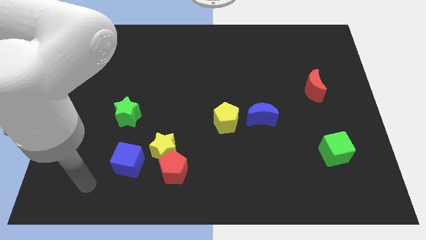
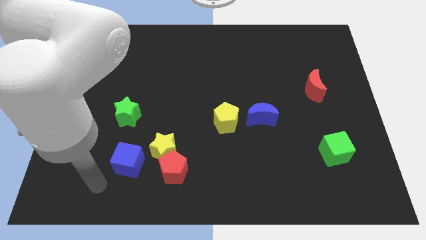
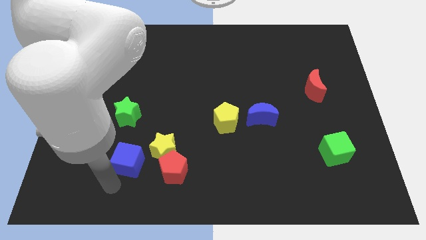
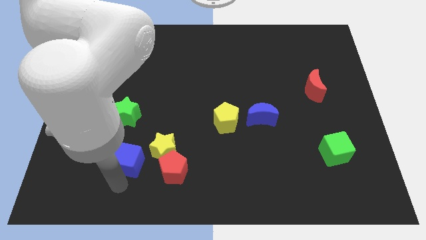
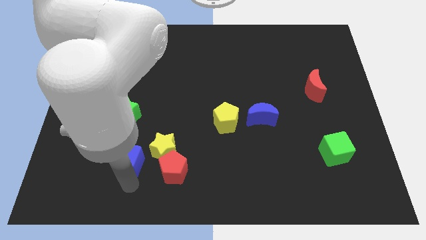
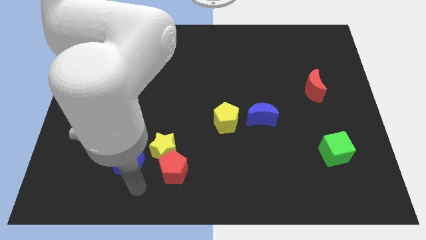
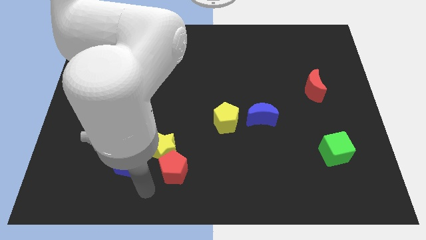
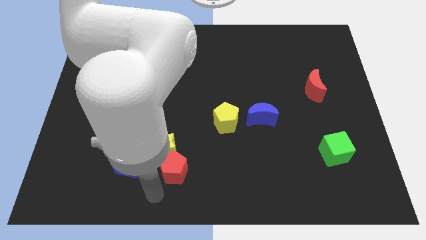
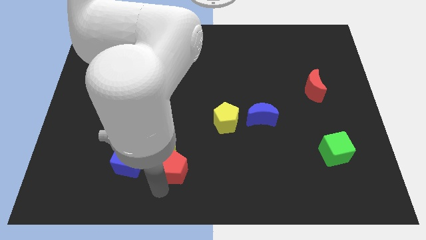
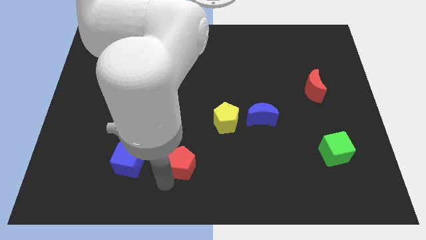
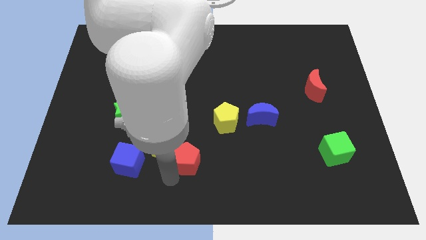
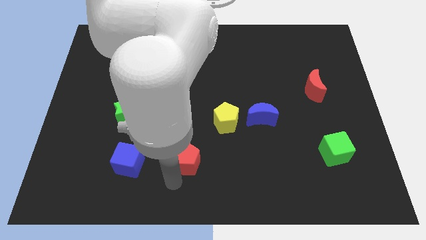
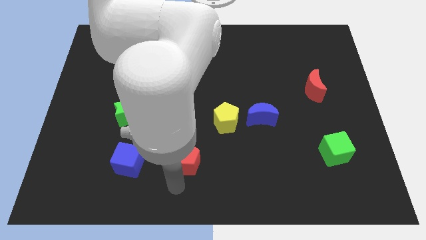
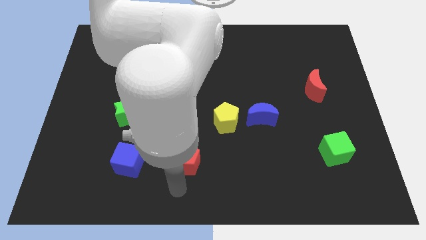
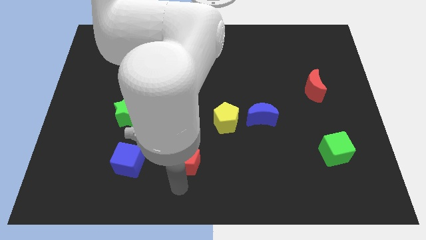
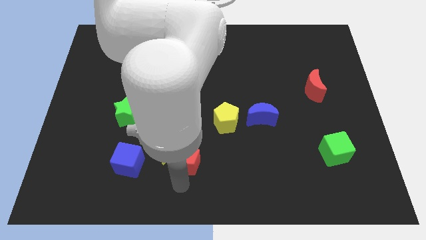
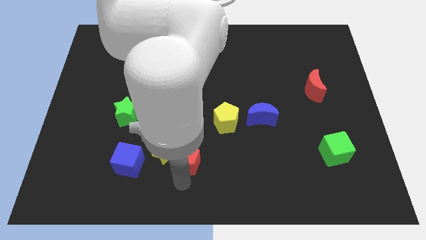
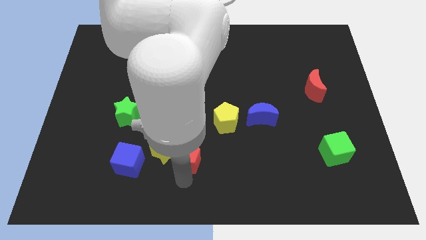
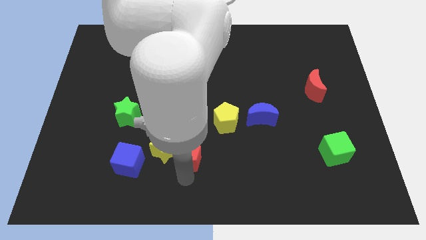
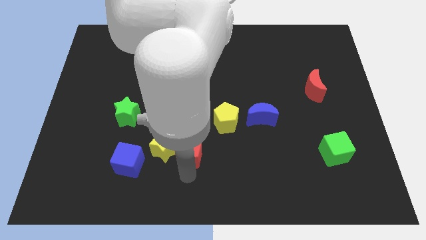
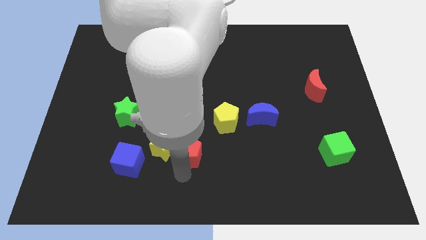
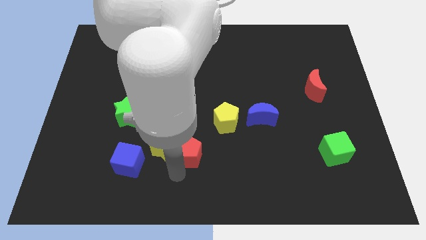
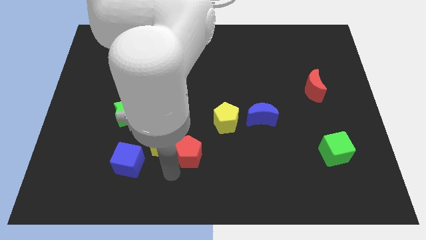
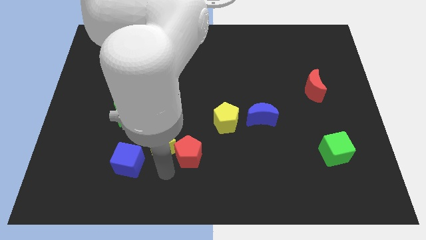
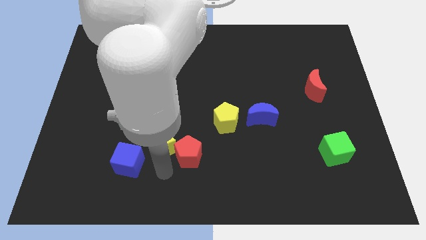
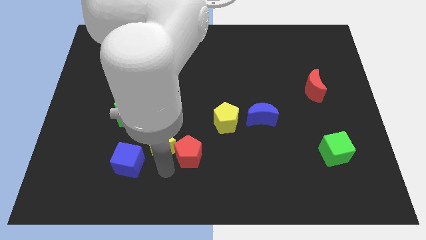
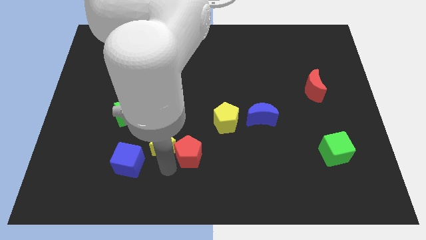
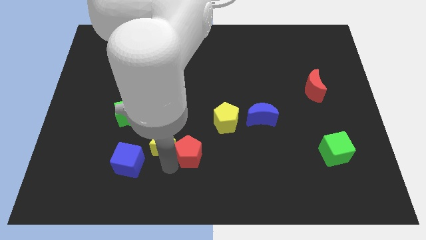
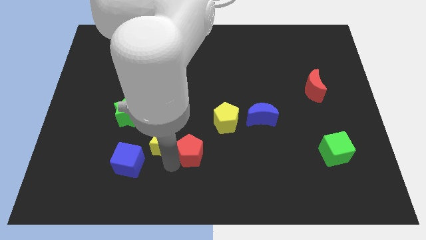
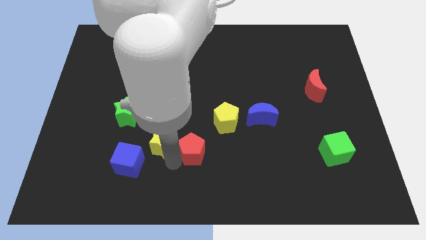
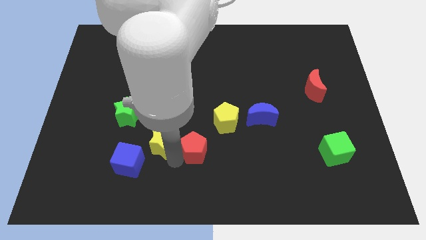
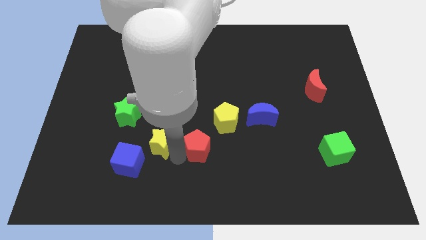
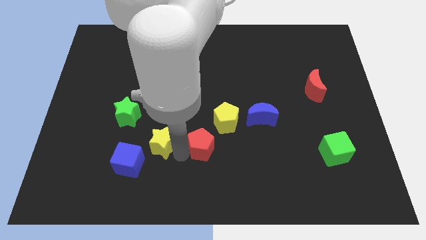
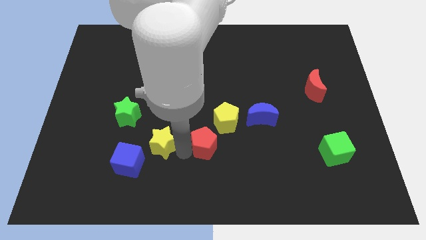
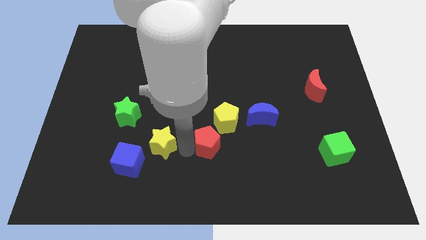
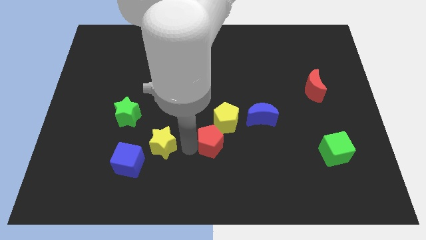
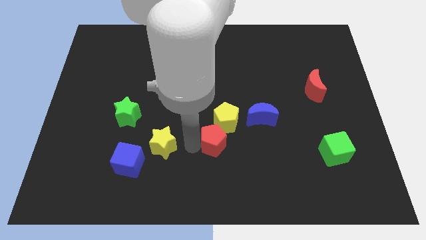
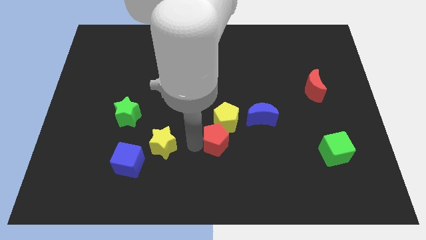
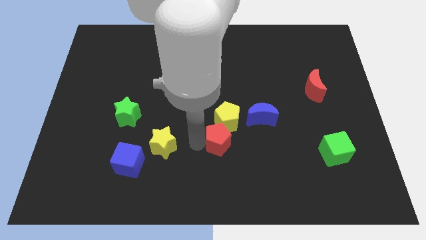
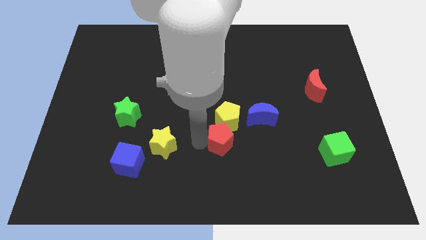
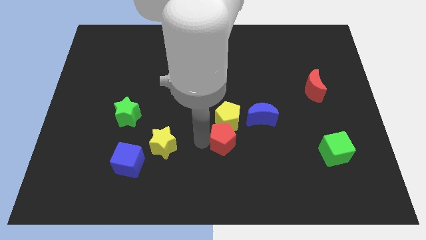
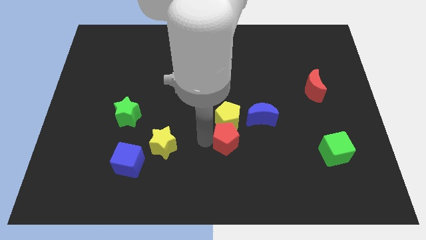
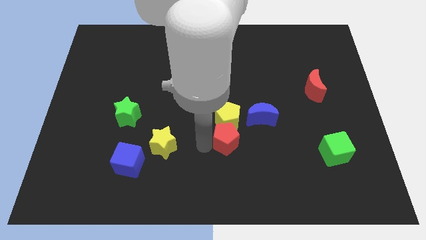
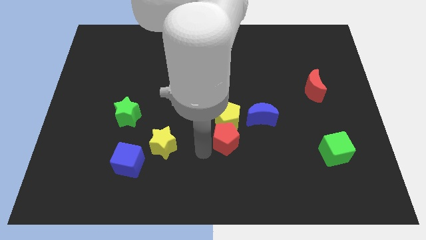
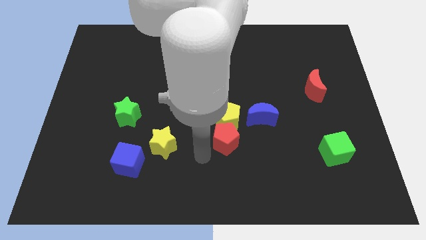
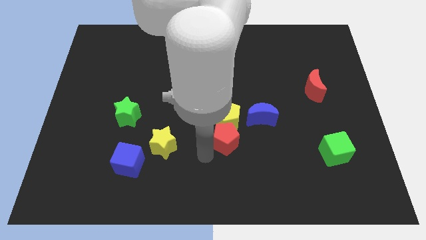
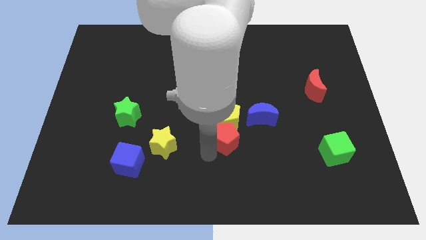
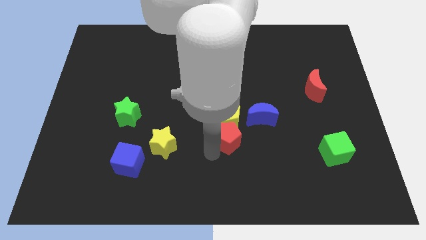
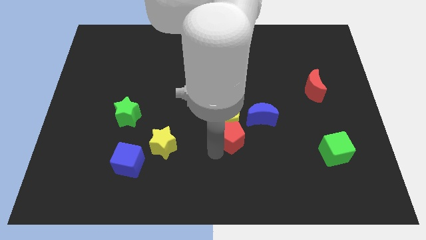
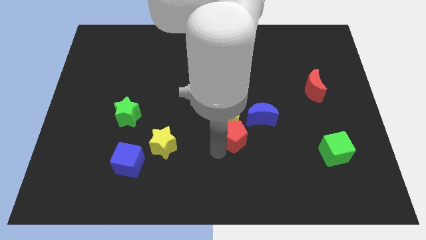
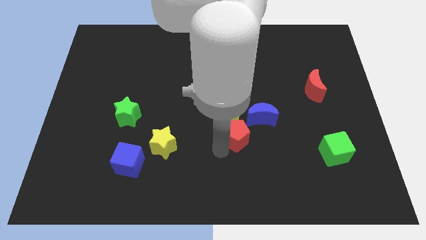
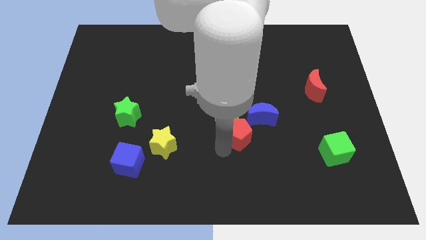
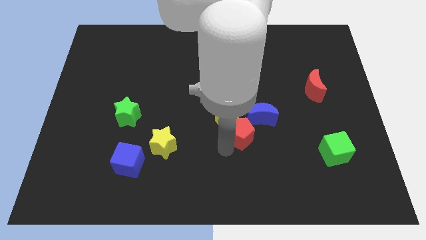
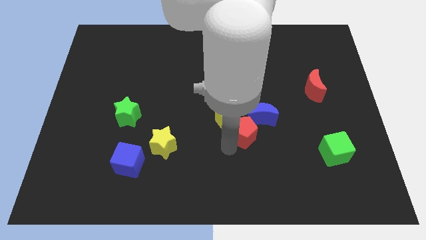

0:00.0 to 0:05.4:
push the red pentagon to the blue moon

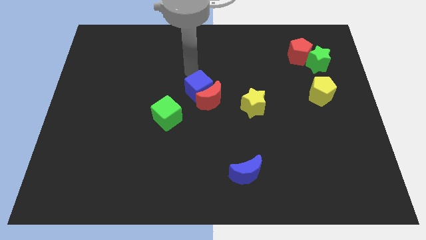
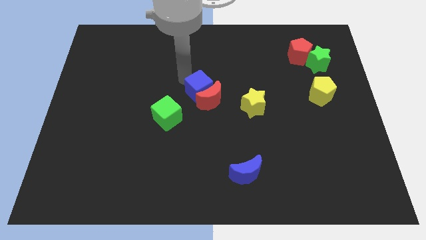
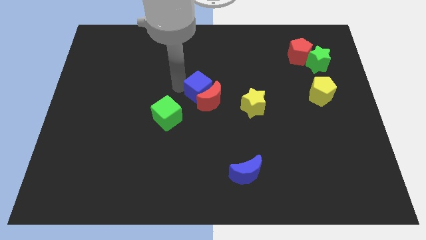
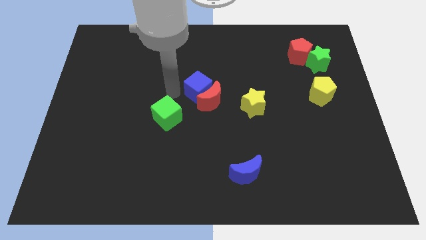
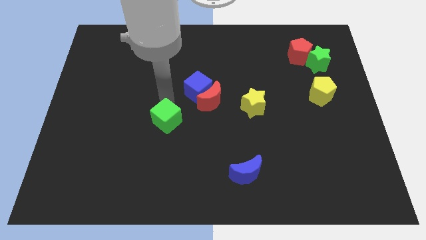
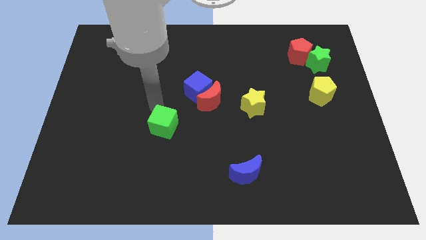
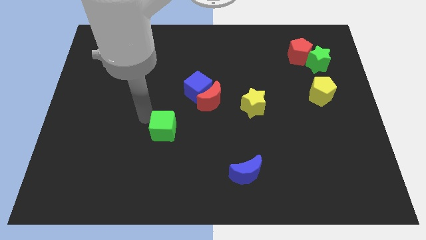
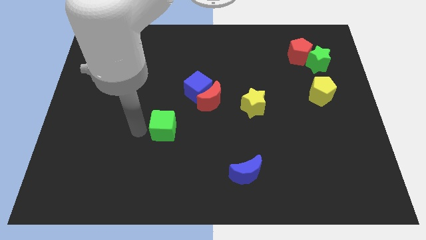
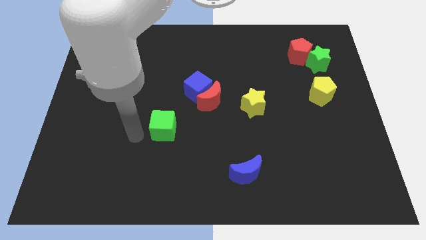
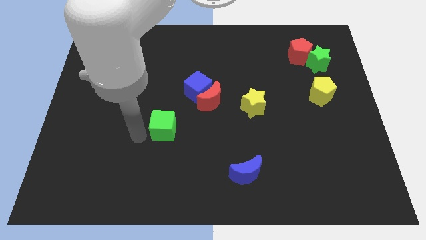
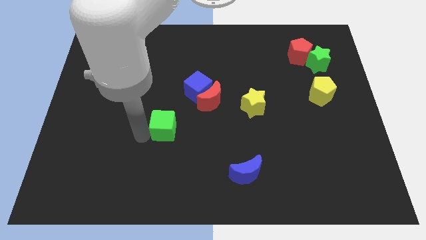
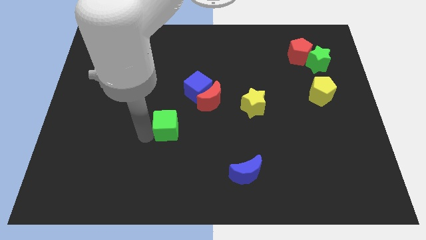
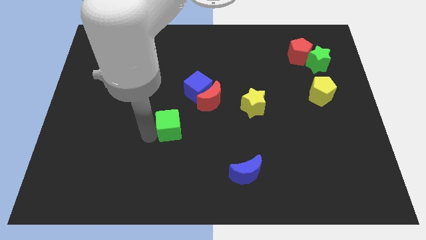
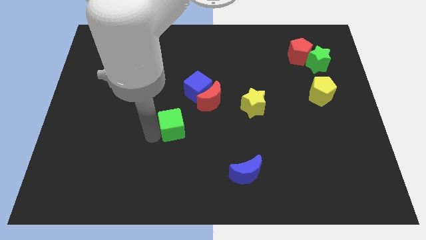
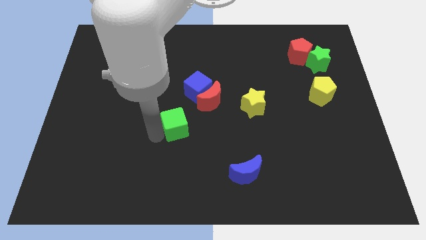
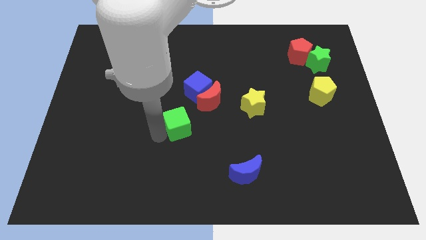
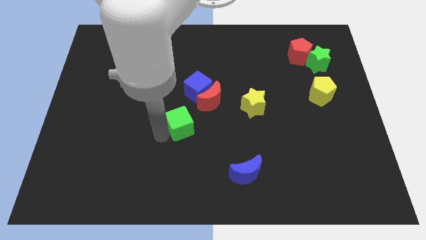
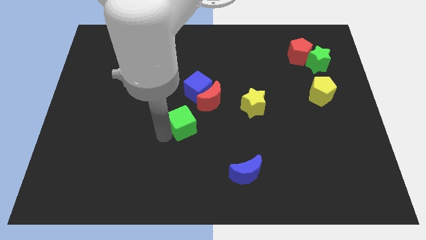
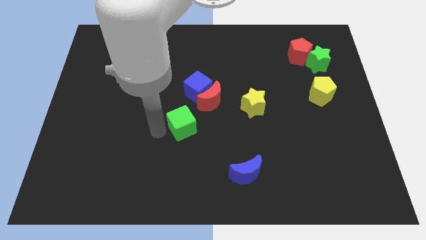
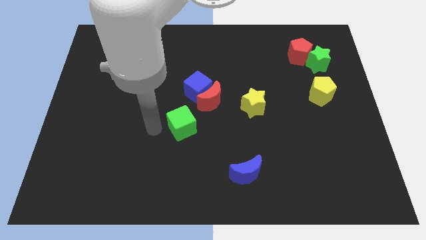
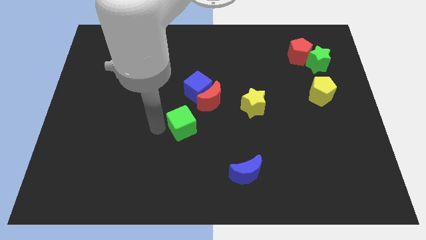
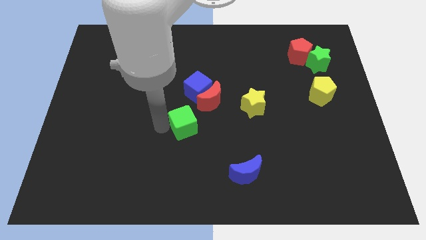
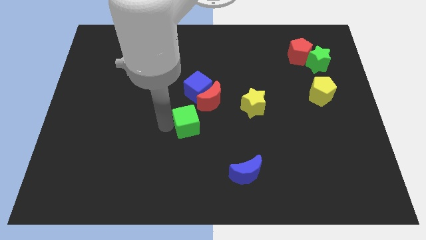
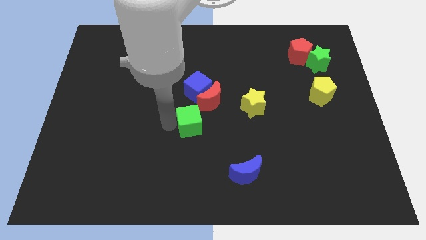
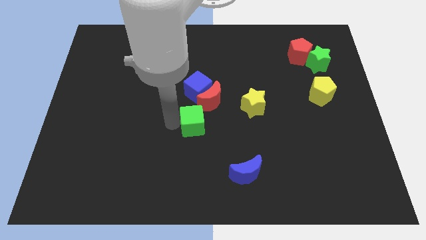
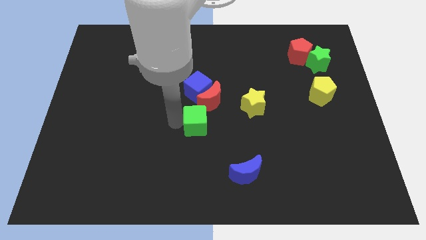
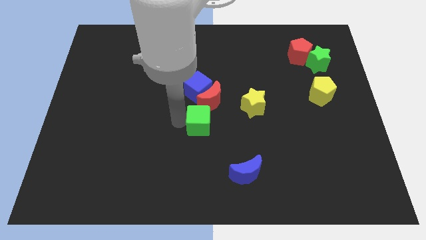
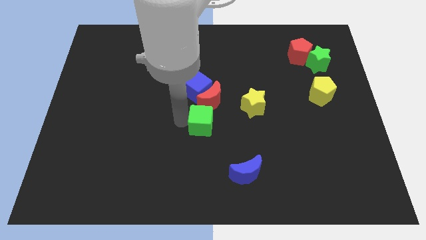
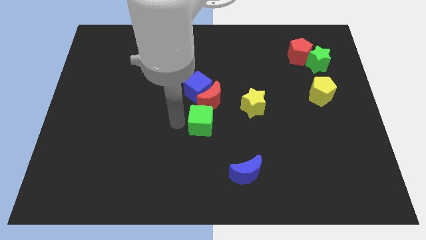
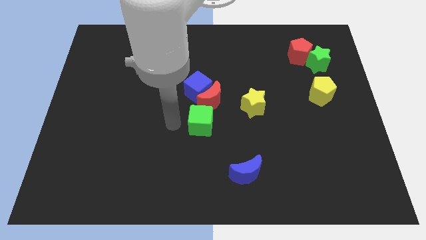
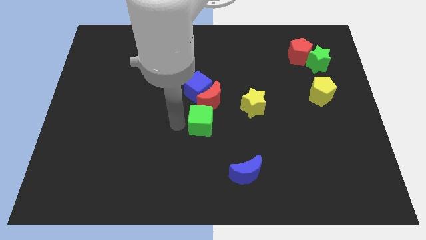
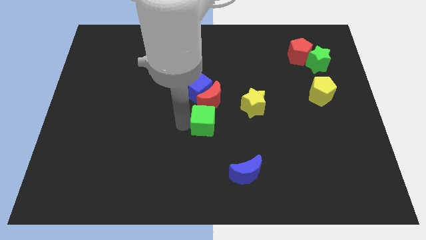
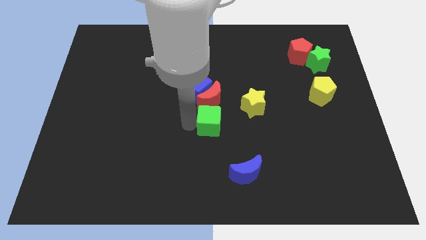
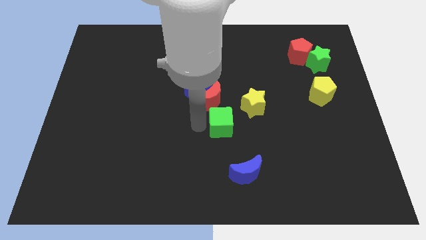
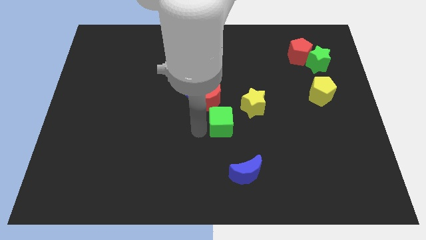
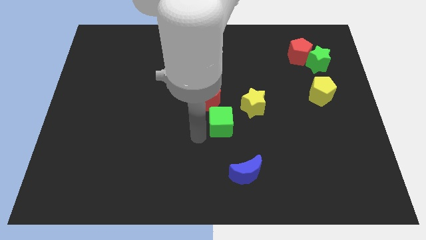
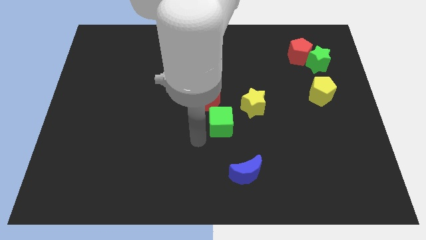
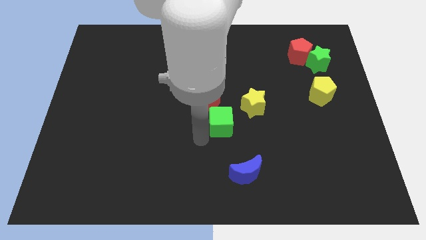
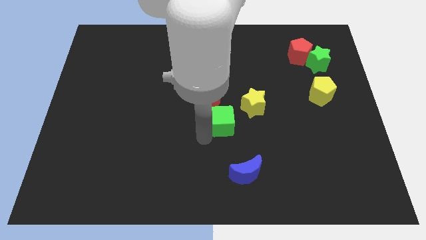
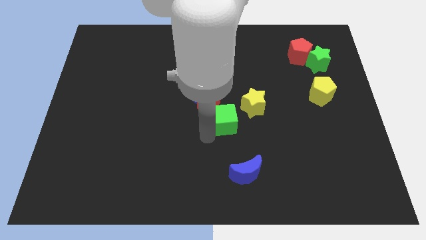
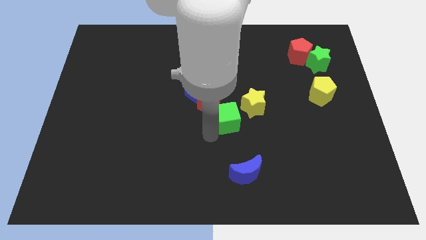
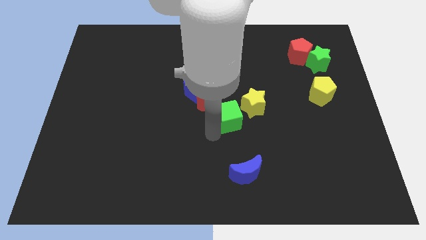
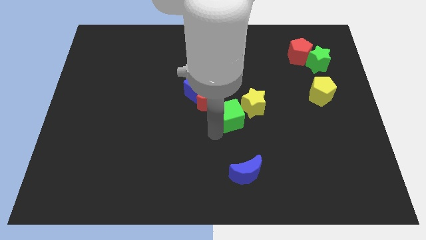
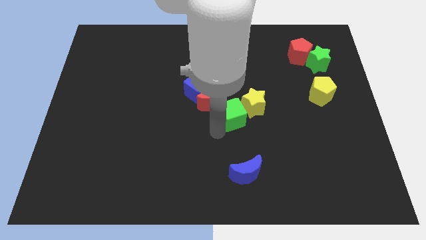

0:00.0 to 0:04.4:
slide the green cube to the yellow star
